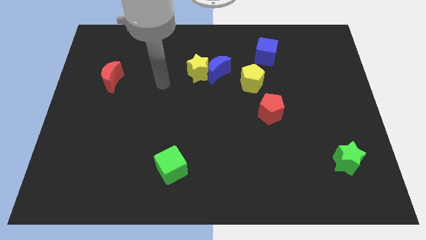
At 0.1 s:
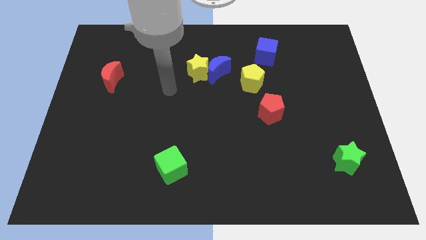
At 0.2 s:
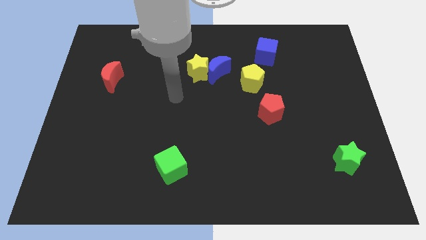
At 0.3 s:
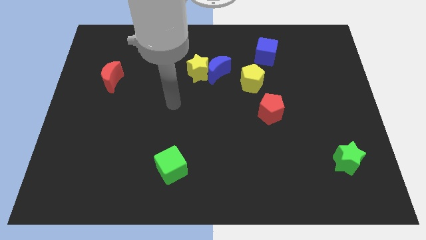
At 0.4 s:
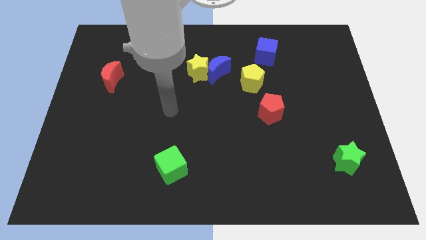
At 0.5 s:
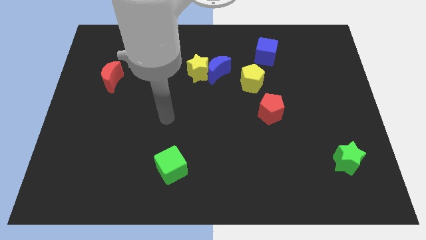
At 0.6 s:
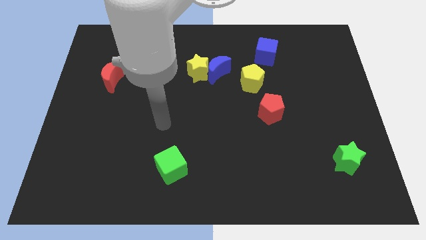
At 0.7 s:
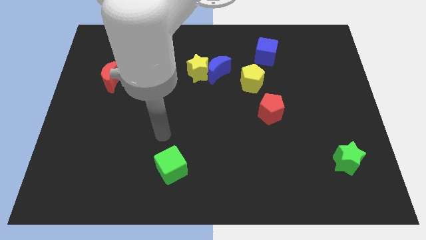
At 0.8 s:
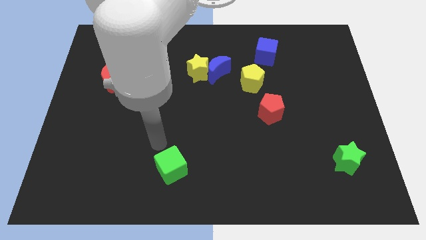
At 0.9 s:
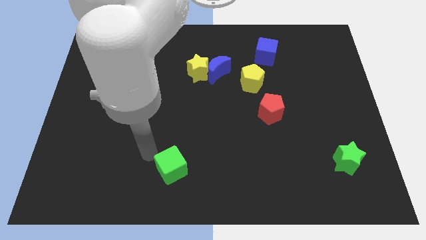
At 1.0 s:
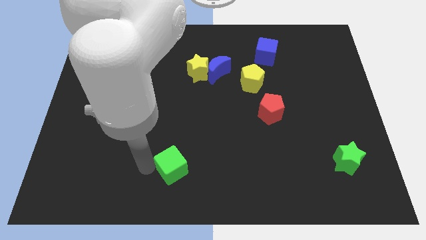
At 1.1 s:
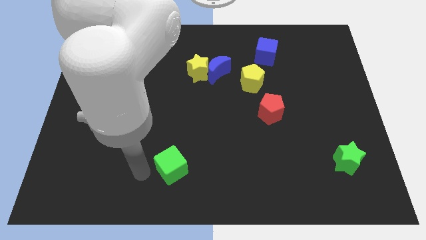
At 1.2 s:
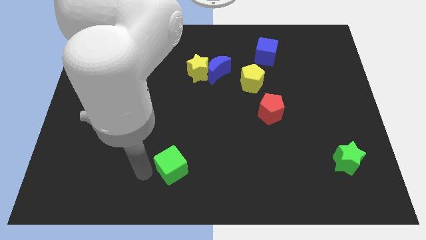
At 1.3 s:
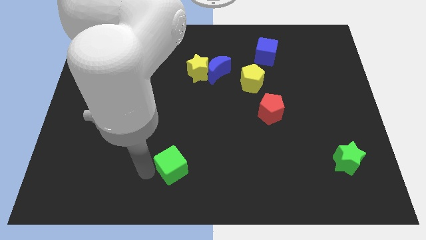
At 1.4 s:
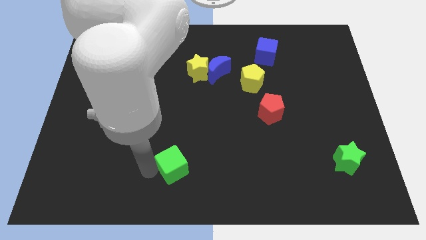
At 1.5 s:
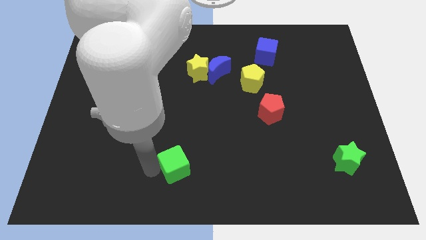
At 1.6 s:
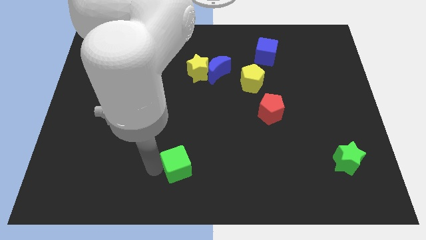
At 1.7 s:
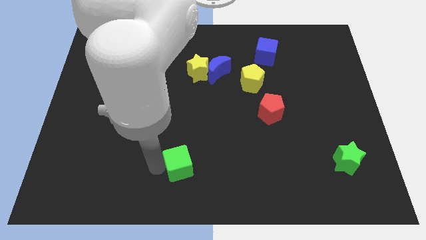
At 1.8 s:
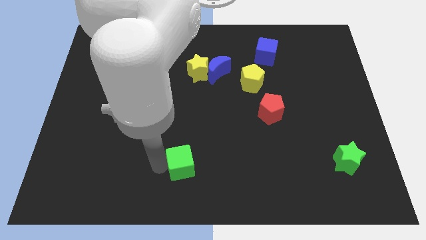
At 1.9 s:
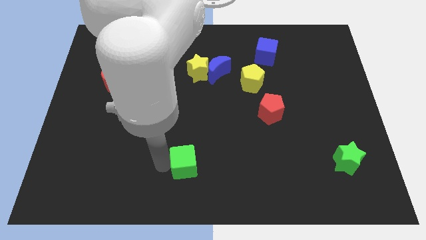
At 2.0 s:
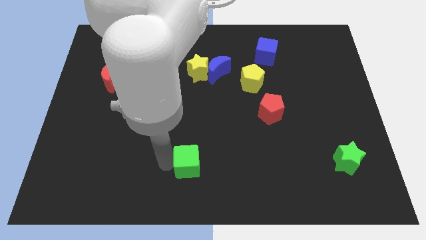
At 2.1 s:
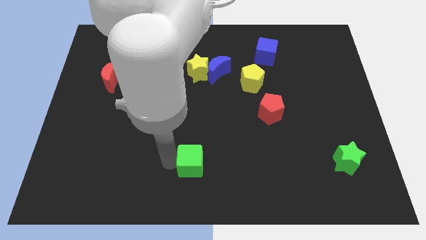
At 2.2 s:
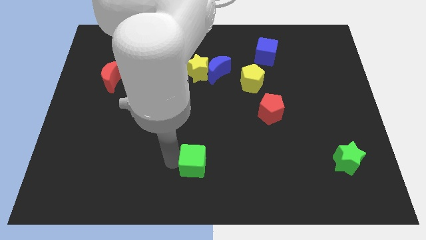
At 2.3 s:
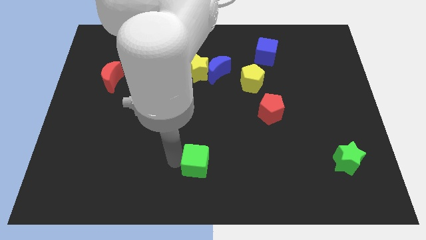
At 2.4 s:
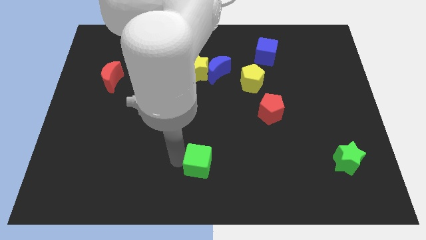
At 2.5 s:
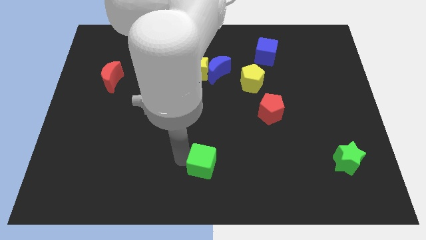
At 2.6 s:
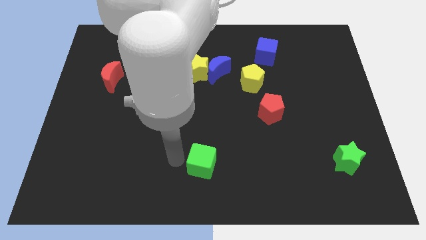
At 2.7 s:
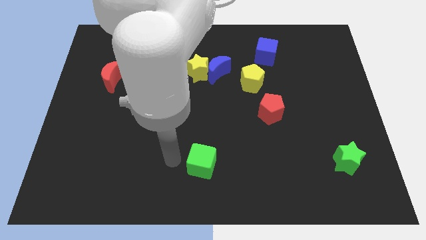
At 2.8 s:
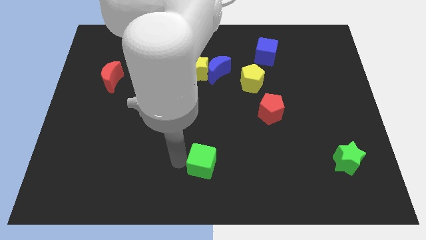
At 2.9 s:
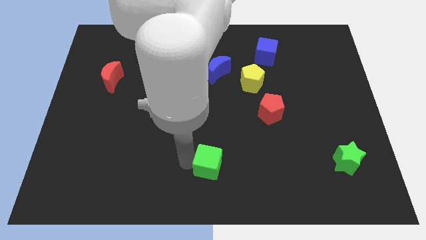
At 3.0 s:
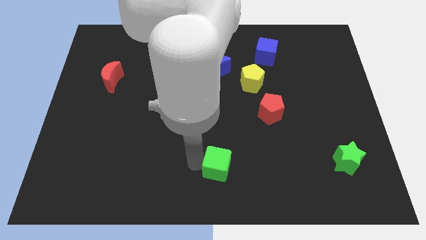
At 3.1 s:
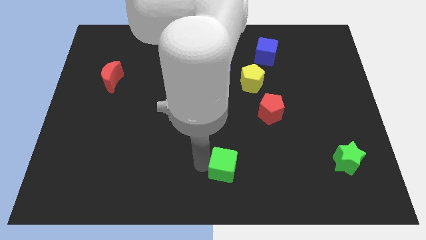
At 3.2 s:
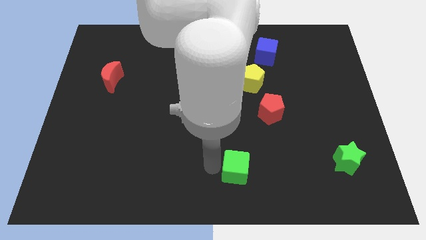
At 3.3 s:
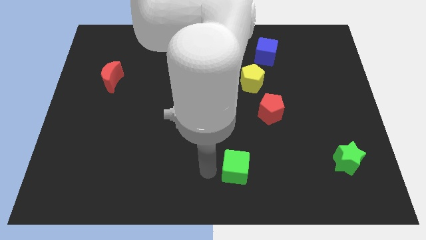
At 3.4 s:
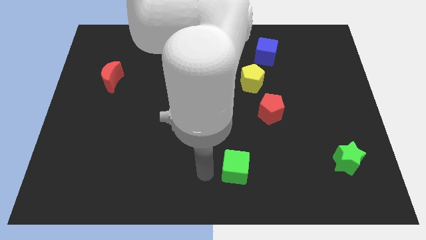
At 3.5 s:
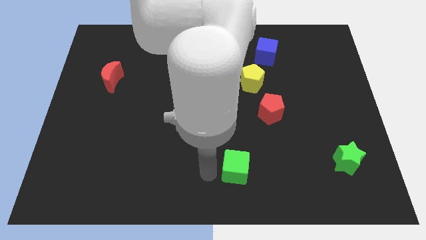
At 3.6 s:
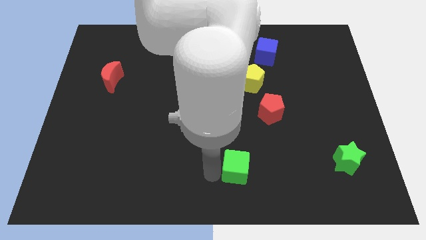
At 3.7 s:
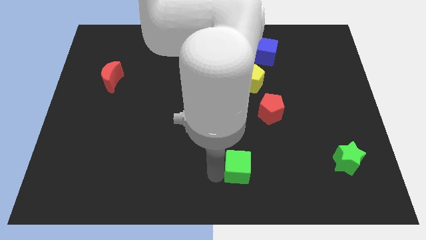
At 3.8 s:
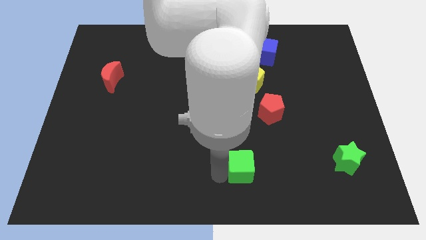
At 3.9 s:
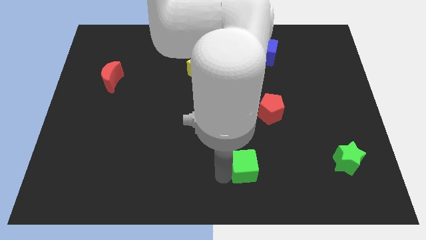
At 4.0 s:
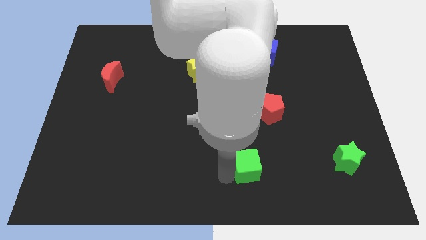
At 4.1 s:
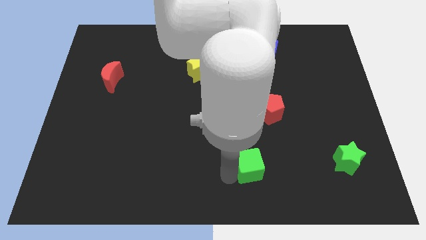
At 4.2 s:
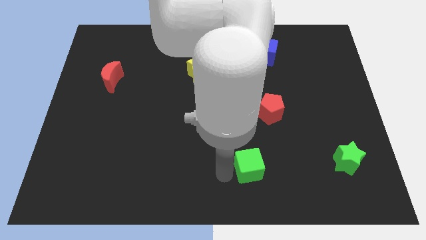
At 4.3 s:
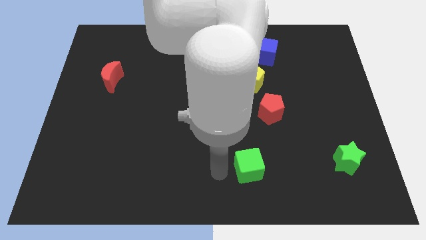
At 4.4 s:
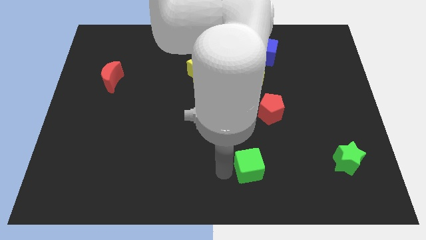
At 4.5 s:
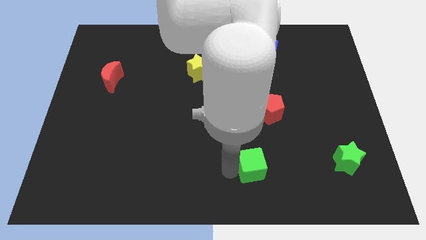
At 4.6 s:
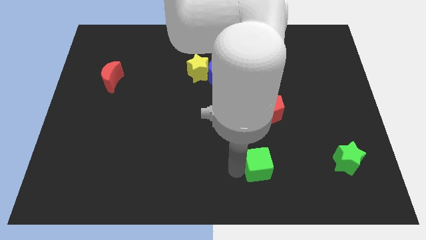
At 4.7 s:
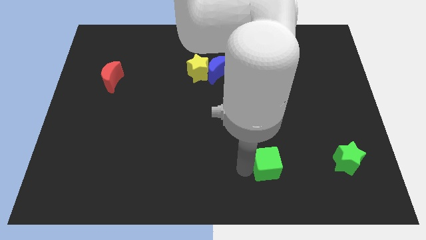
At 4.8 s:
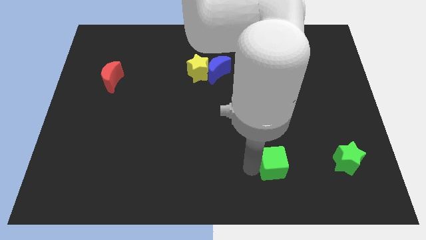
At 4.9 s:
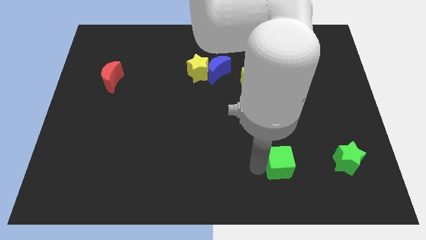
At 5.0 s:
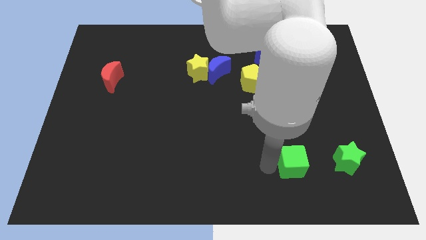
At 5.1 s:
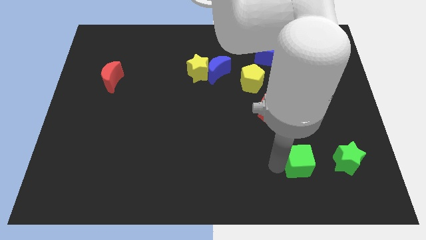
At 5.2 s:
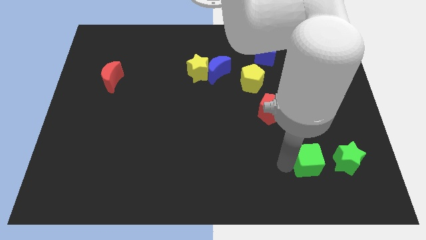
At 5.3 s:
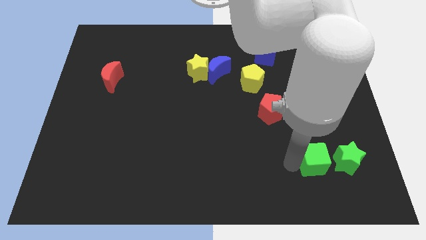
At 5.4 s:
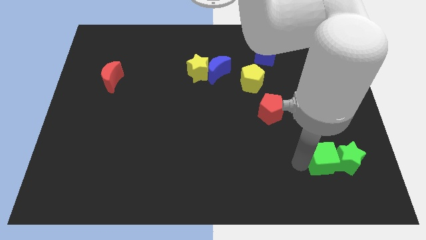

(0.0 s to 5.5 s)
push the green cube towards the green star

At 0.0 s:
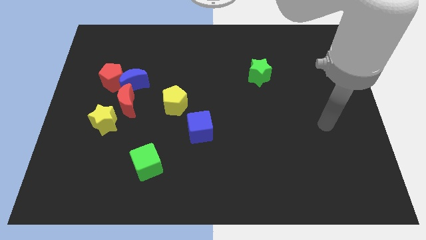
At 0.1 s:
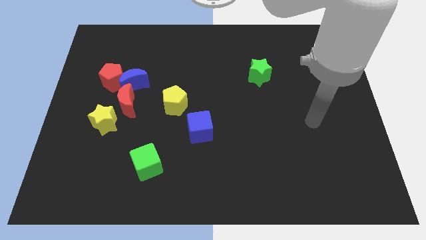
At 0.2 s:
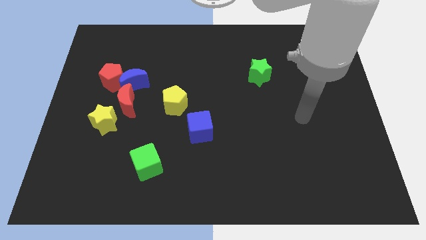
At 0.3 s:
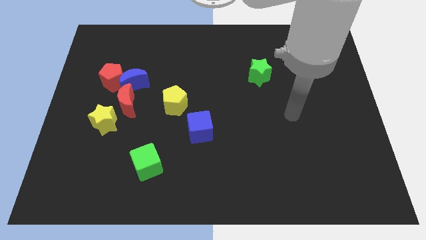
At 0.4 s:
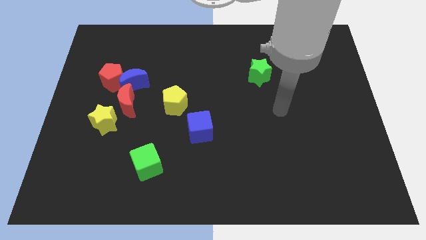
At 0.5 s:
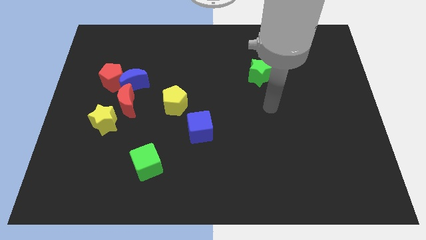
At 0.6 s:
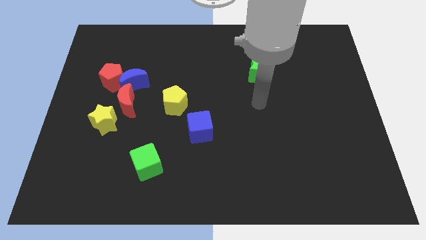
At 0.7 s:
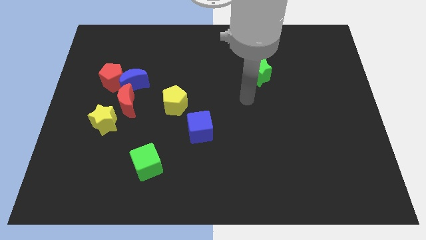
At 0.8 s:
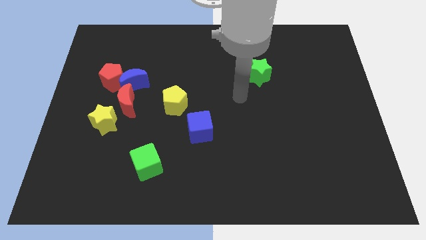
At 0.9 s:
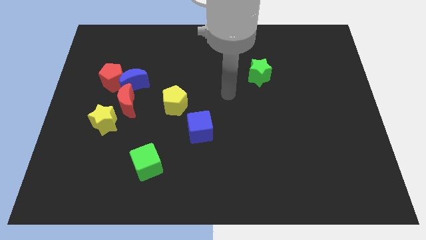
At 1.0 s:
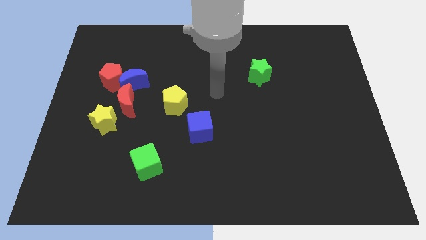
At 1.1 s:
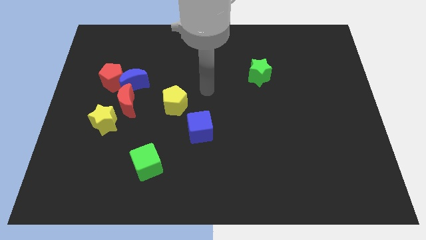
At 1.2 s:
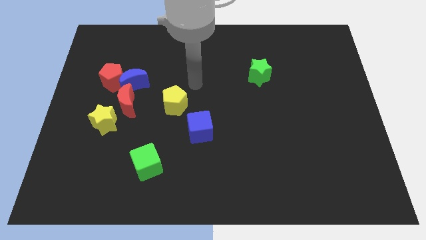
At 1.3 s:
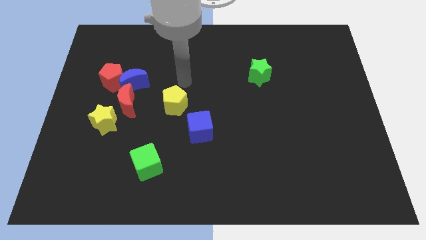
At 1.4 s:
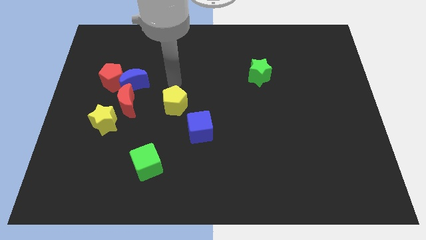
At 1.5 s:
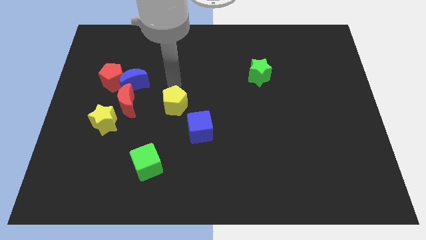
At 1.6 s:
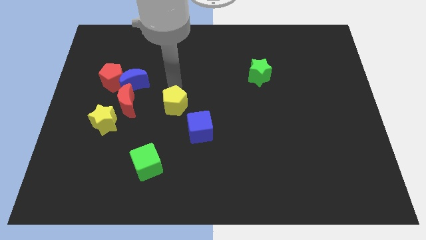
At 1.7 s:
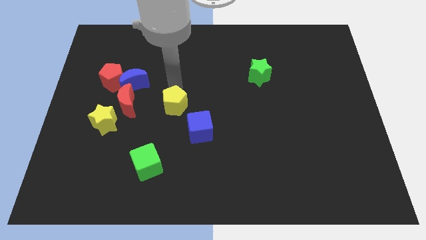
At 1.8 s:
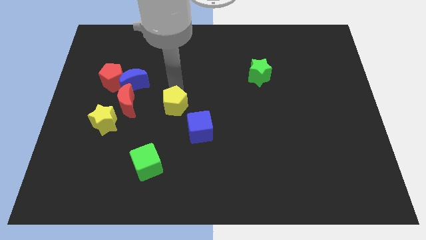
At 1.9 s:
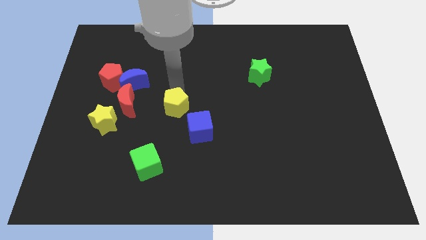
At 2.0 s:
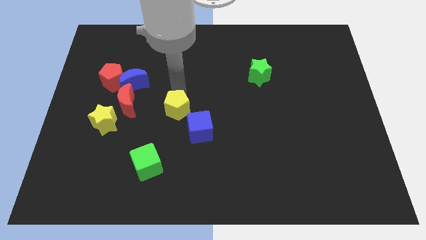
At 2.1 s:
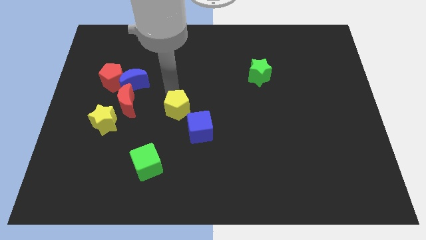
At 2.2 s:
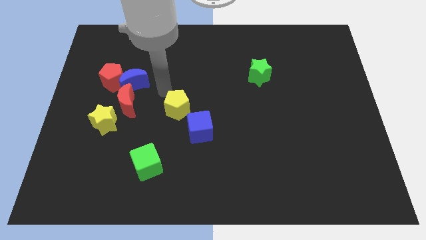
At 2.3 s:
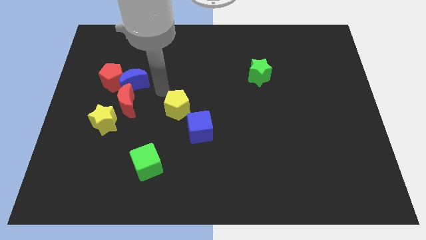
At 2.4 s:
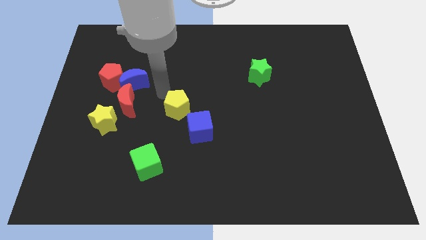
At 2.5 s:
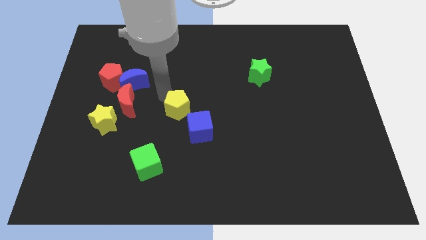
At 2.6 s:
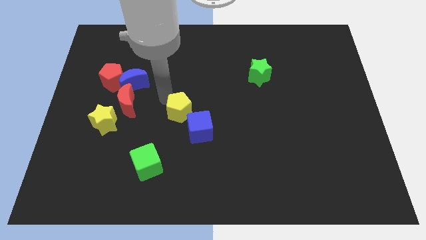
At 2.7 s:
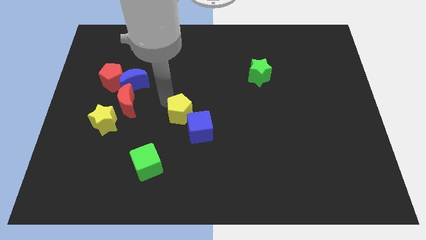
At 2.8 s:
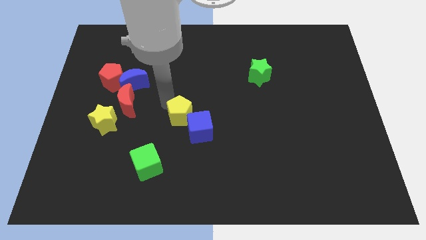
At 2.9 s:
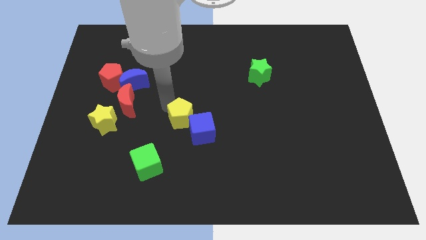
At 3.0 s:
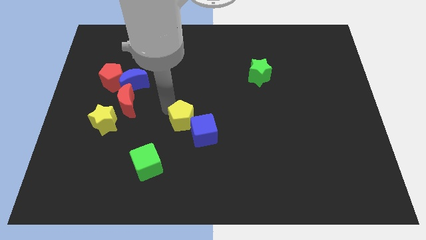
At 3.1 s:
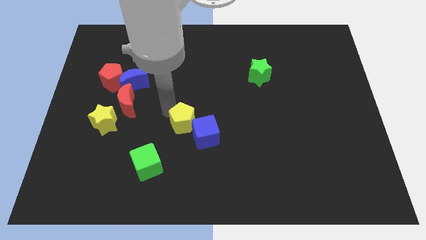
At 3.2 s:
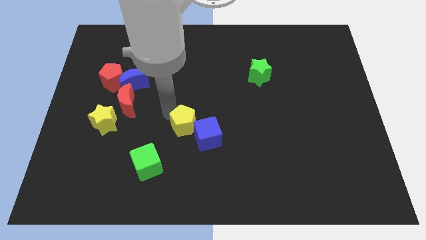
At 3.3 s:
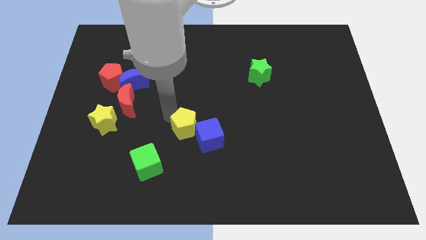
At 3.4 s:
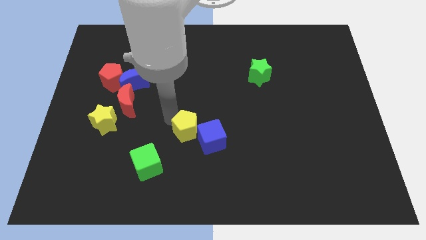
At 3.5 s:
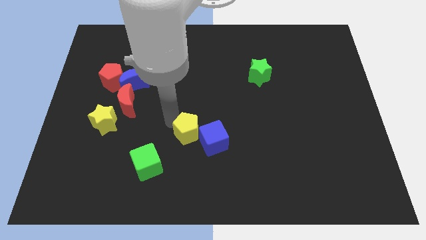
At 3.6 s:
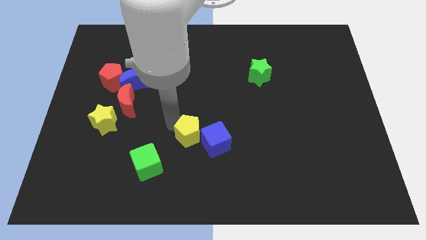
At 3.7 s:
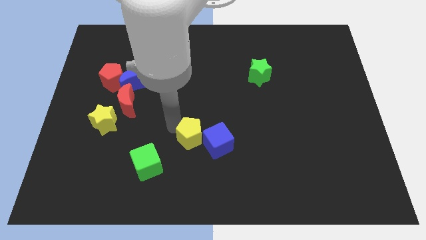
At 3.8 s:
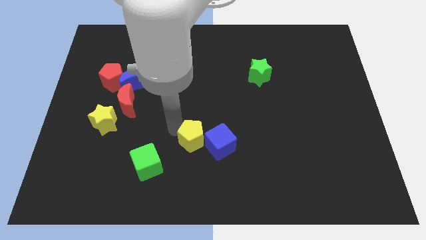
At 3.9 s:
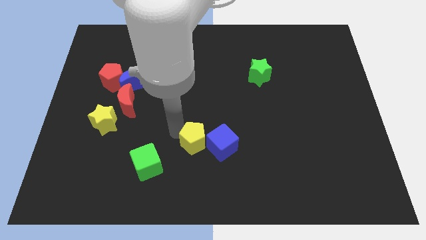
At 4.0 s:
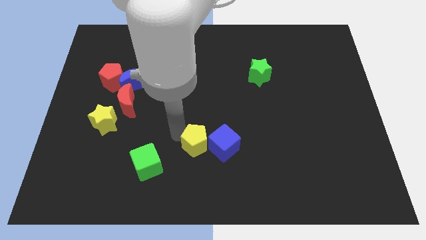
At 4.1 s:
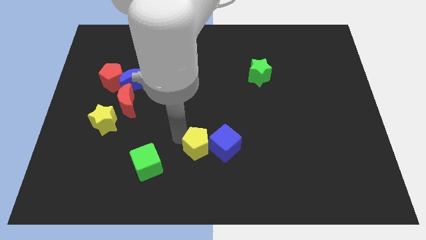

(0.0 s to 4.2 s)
push the yellow pentagon to the blue cube
